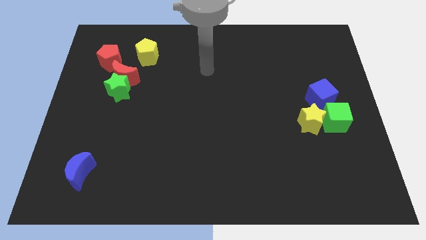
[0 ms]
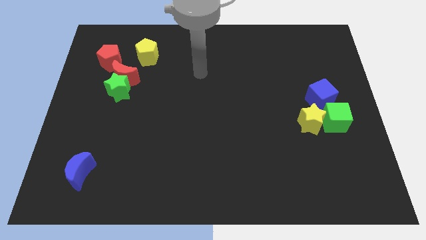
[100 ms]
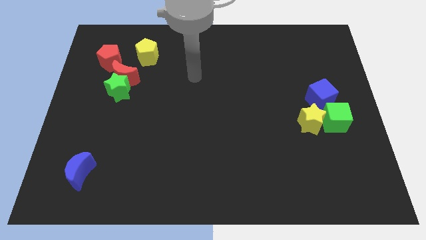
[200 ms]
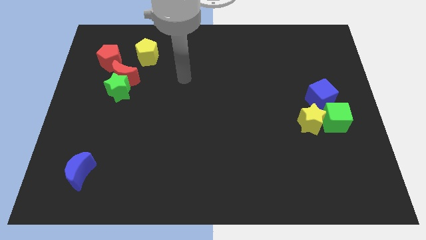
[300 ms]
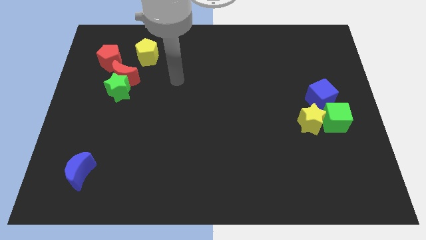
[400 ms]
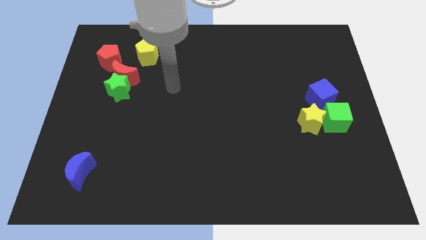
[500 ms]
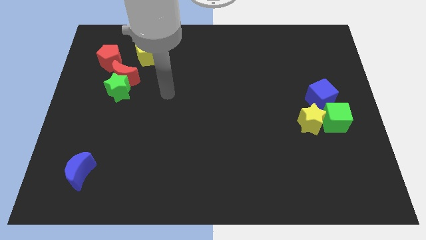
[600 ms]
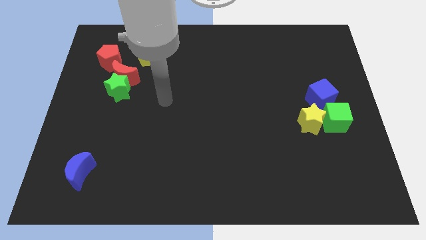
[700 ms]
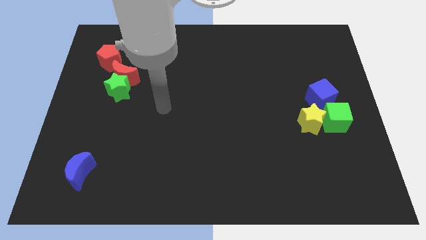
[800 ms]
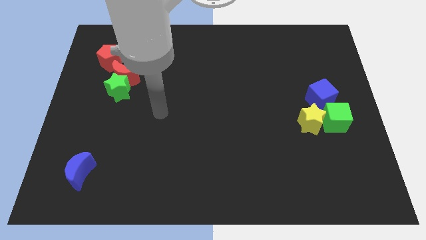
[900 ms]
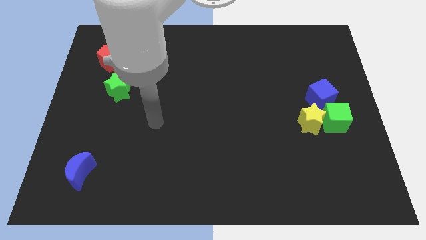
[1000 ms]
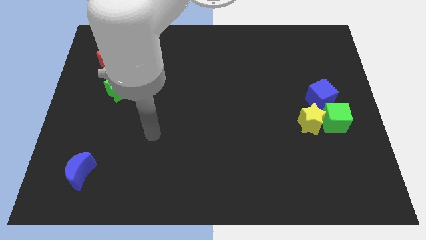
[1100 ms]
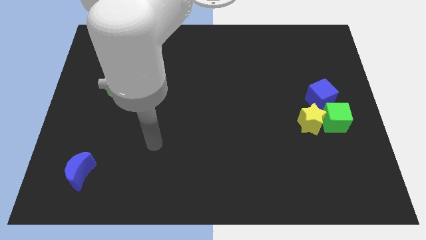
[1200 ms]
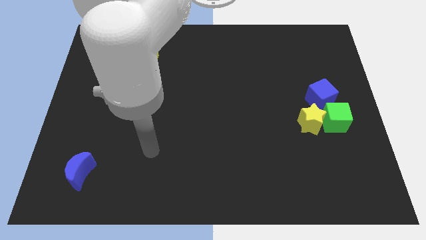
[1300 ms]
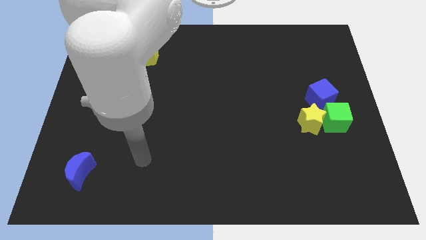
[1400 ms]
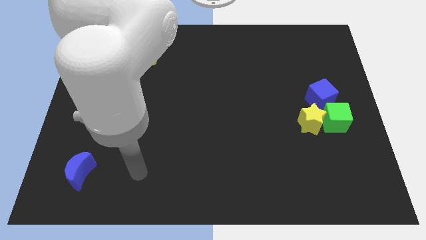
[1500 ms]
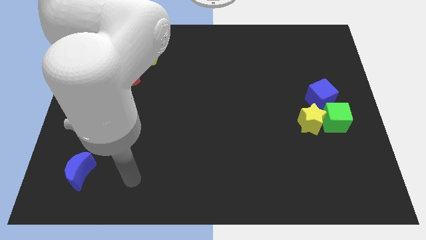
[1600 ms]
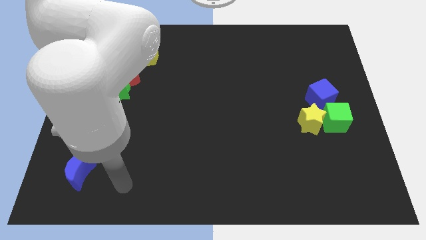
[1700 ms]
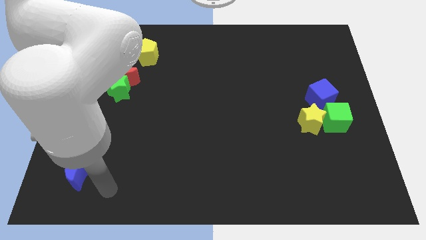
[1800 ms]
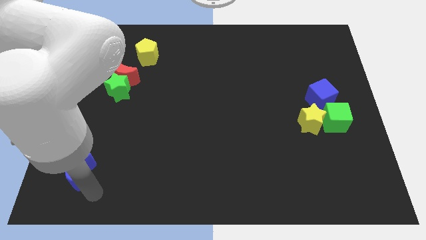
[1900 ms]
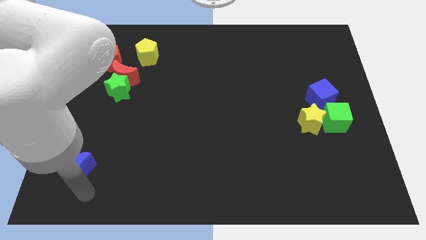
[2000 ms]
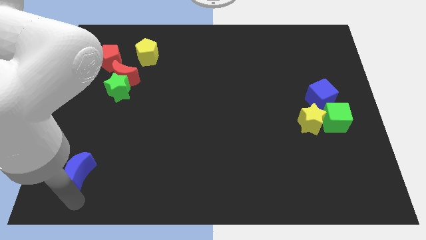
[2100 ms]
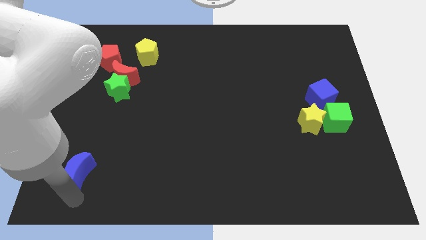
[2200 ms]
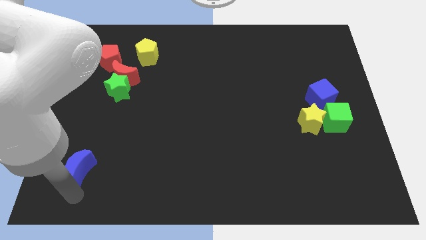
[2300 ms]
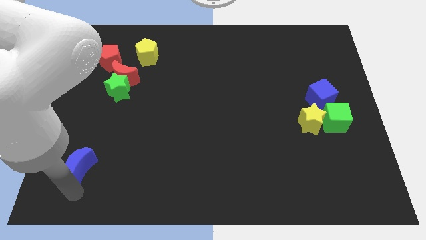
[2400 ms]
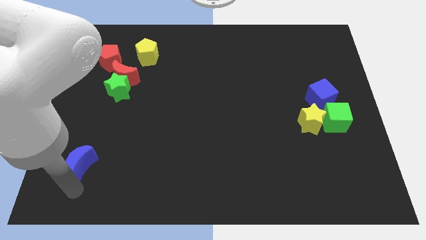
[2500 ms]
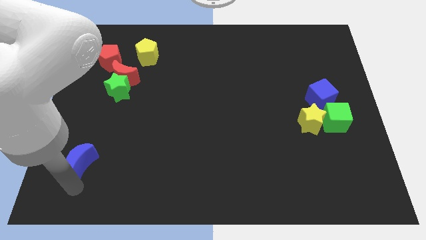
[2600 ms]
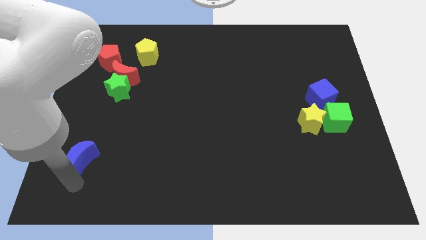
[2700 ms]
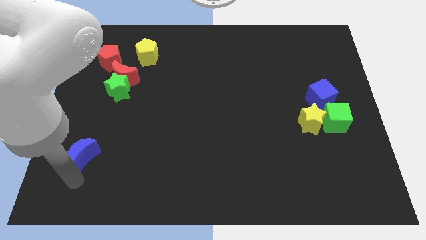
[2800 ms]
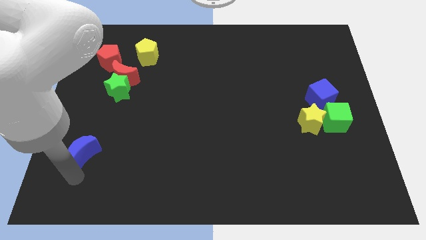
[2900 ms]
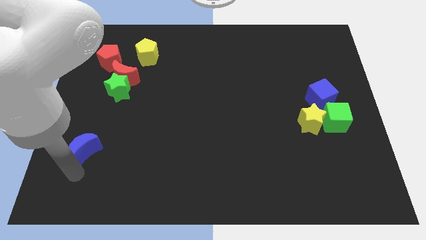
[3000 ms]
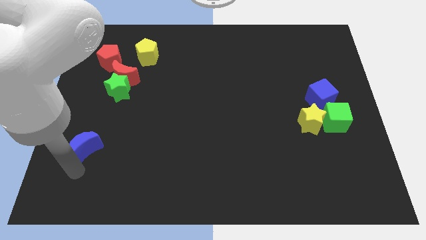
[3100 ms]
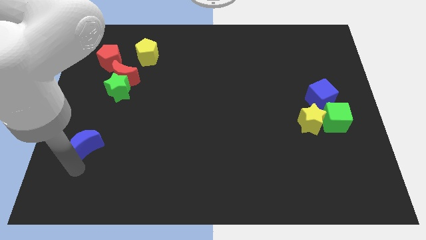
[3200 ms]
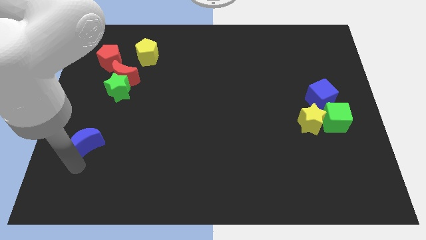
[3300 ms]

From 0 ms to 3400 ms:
slightly push the blue moon up

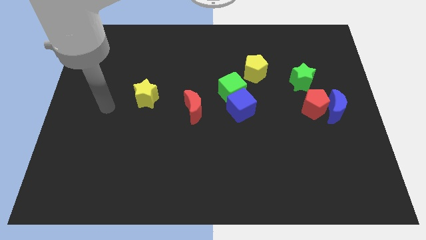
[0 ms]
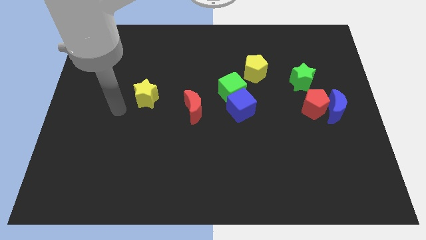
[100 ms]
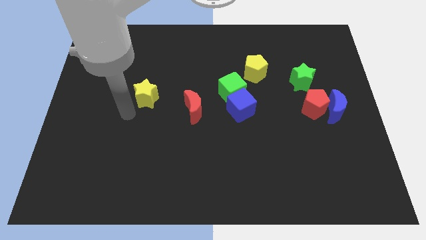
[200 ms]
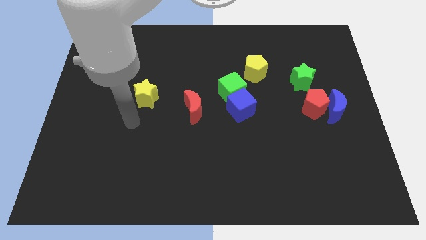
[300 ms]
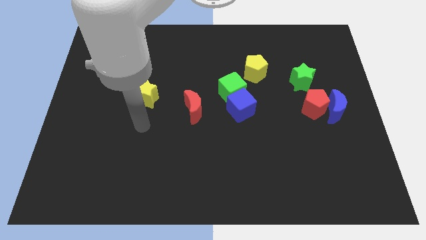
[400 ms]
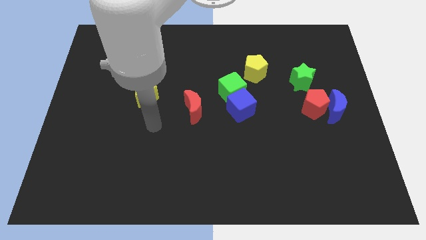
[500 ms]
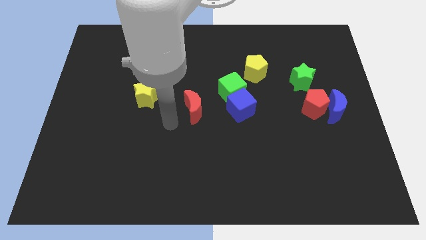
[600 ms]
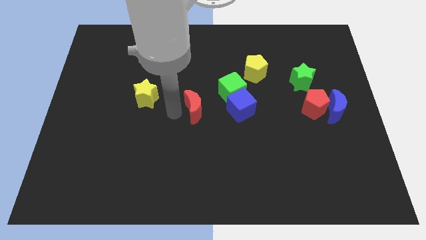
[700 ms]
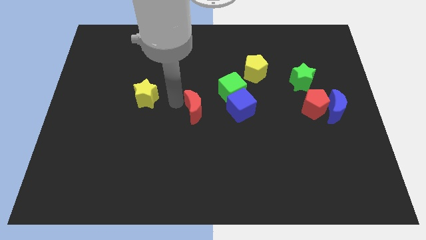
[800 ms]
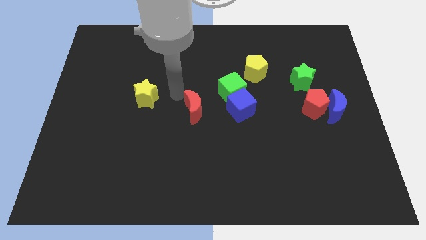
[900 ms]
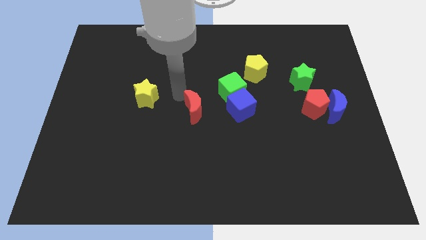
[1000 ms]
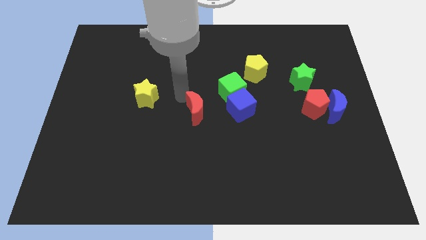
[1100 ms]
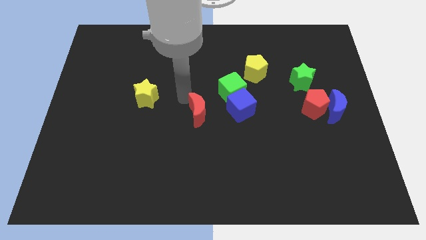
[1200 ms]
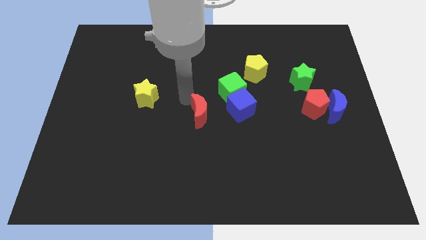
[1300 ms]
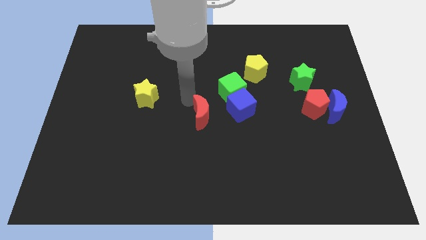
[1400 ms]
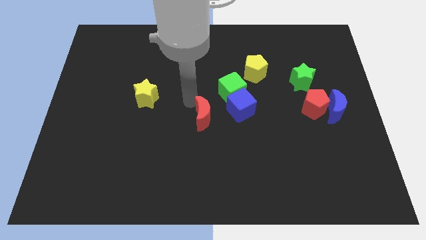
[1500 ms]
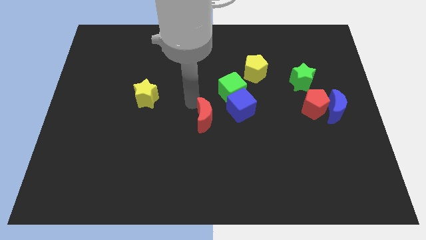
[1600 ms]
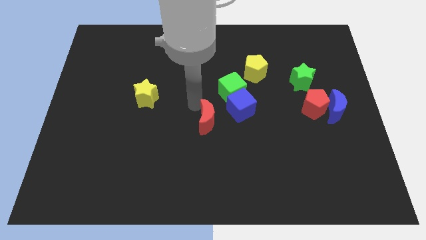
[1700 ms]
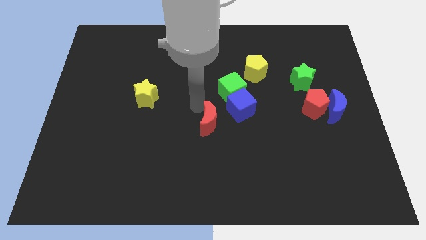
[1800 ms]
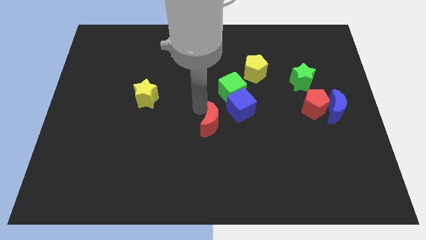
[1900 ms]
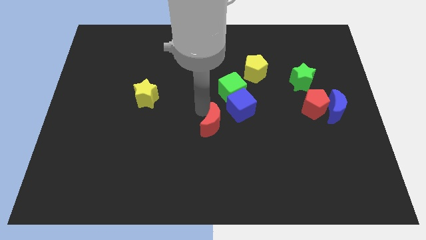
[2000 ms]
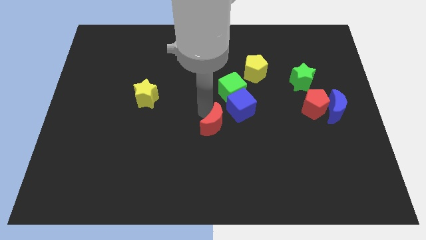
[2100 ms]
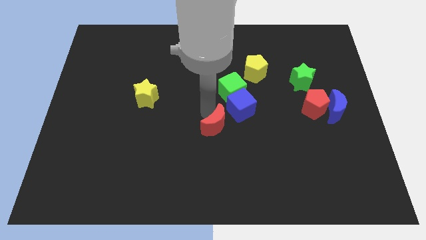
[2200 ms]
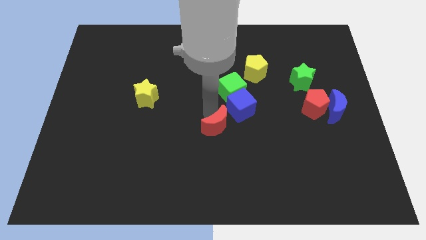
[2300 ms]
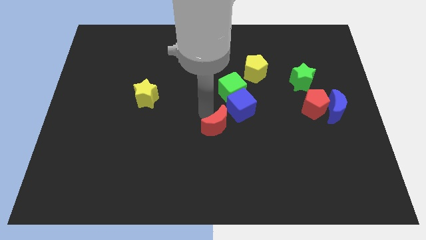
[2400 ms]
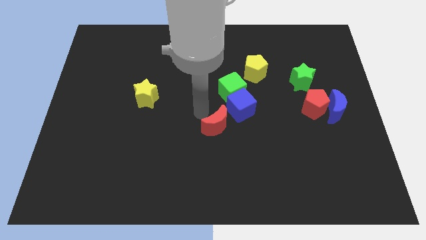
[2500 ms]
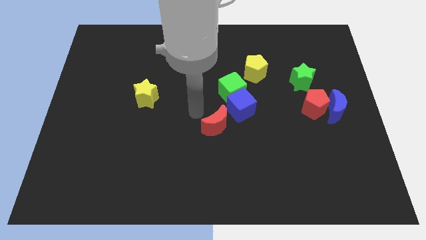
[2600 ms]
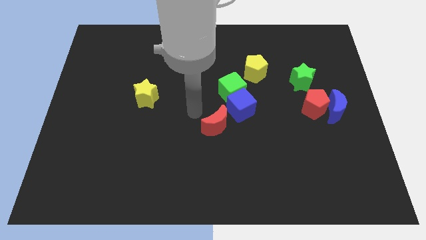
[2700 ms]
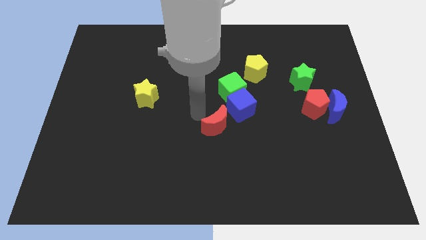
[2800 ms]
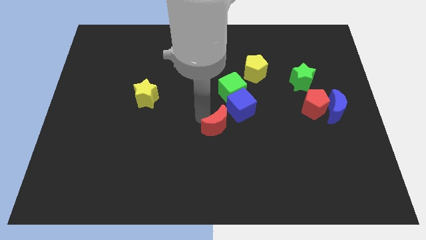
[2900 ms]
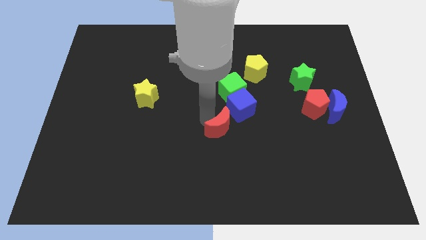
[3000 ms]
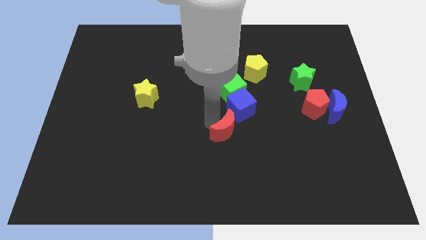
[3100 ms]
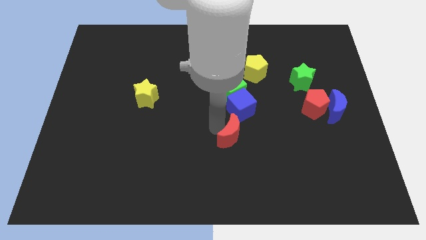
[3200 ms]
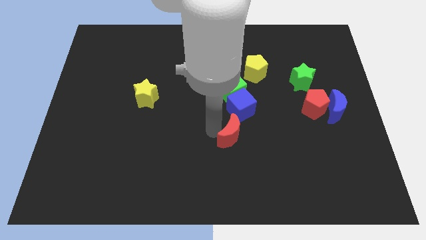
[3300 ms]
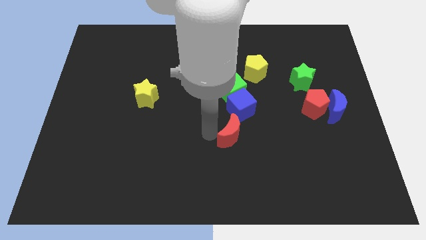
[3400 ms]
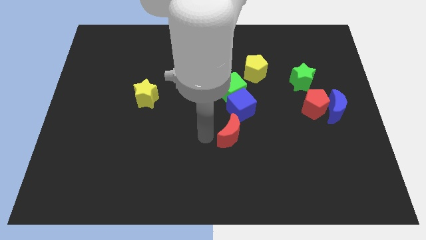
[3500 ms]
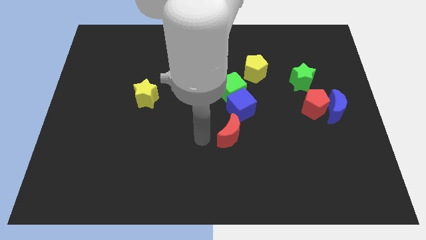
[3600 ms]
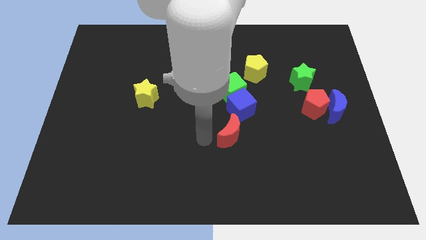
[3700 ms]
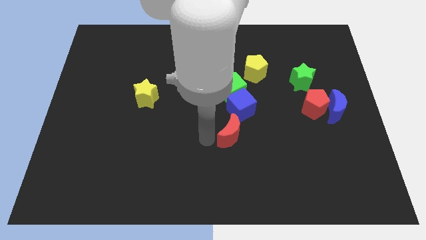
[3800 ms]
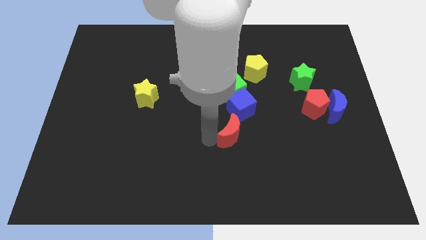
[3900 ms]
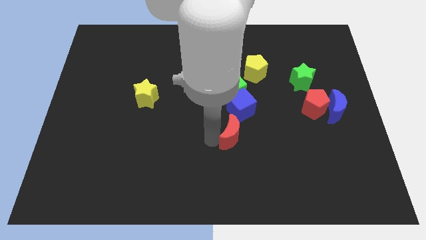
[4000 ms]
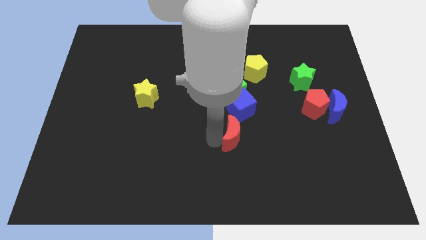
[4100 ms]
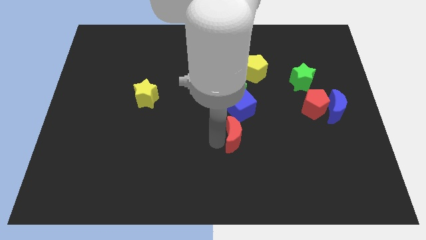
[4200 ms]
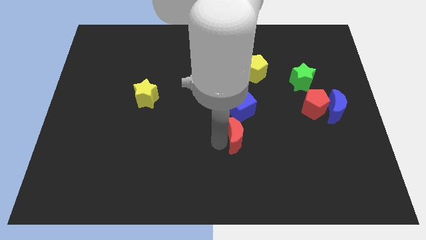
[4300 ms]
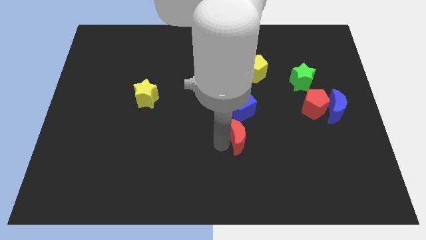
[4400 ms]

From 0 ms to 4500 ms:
push the red moon to the right a little

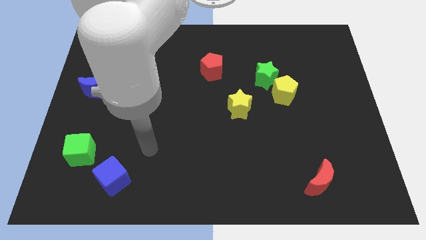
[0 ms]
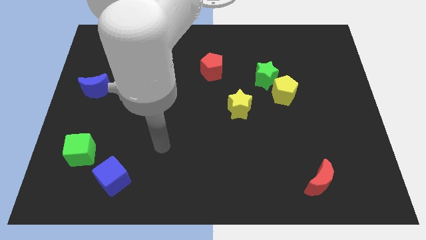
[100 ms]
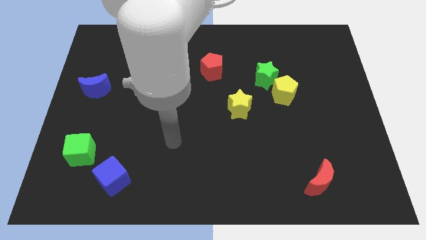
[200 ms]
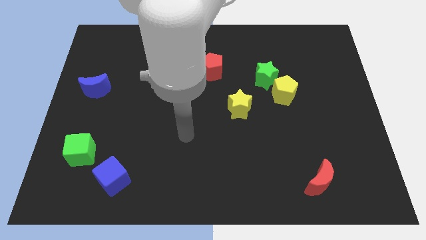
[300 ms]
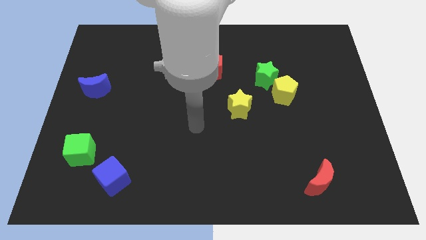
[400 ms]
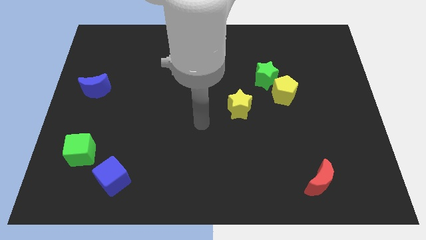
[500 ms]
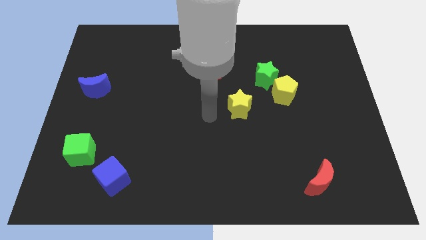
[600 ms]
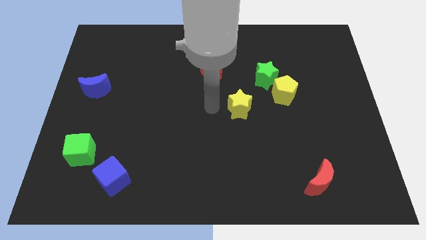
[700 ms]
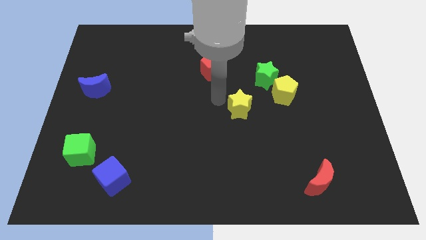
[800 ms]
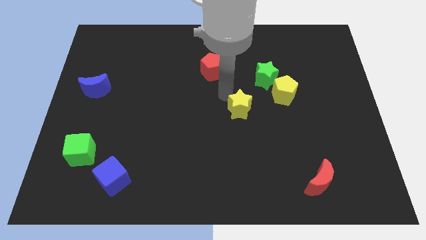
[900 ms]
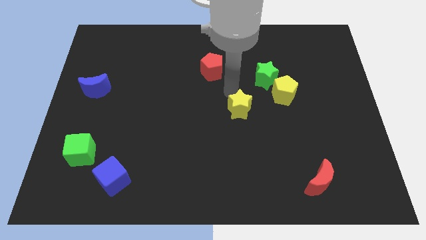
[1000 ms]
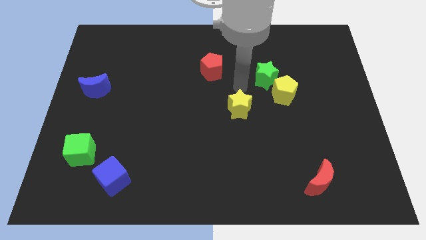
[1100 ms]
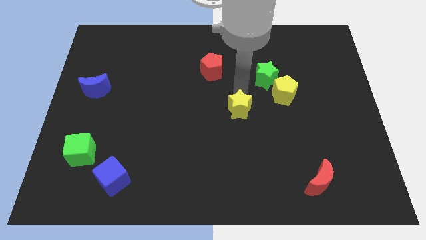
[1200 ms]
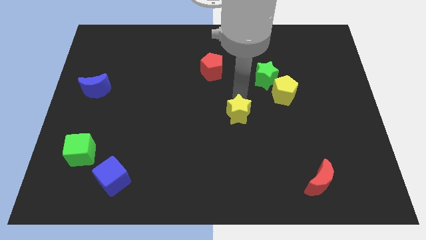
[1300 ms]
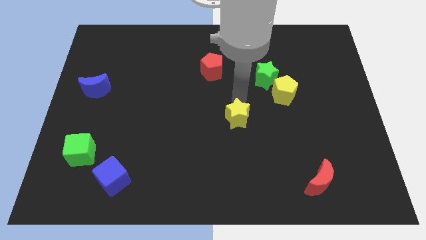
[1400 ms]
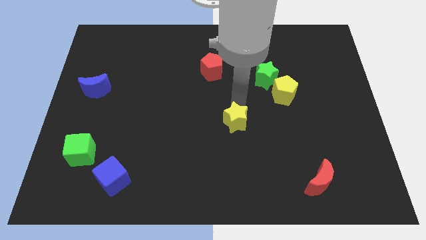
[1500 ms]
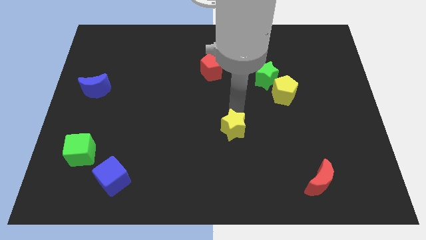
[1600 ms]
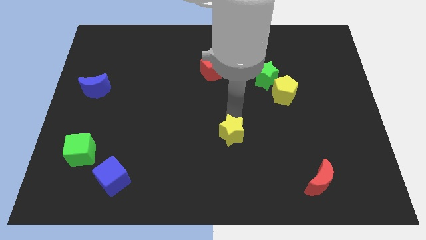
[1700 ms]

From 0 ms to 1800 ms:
slide the yellow star down a bit
